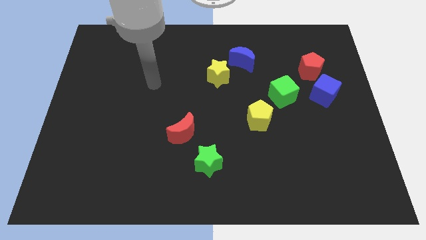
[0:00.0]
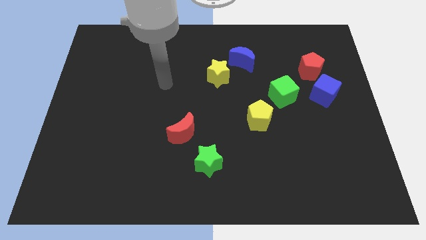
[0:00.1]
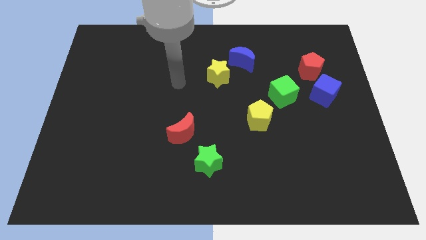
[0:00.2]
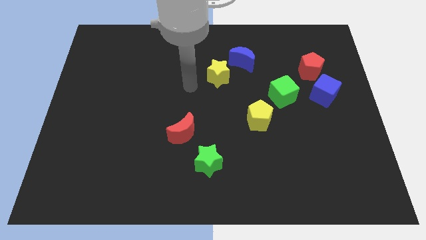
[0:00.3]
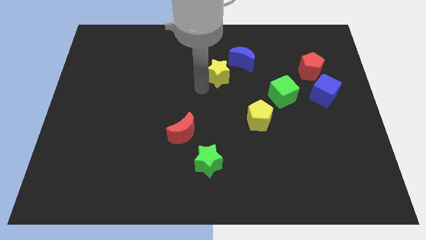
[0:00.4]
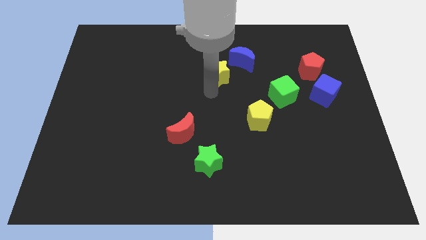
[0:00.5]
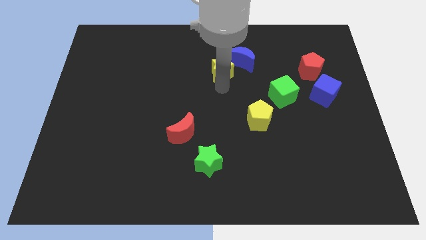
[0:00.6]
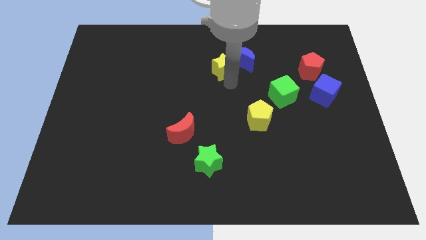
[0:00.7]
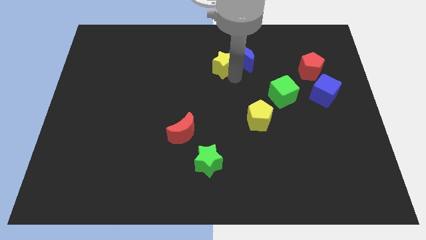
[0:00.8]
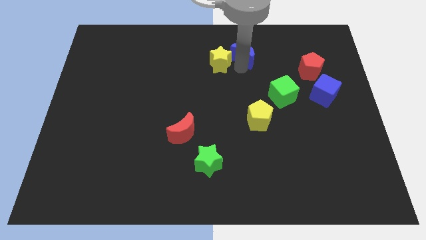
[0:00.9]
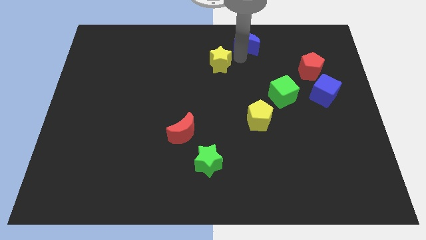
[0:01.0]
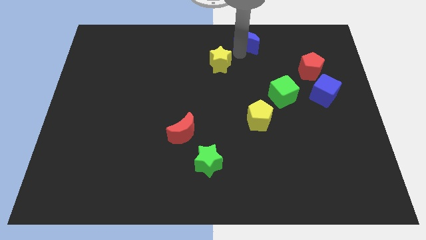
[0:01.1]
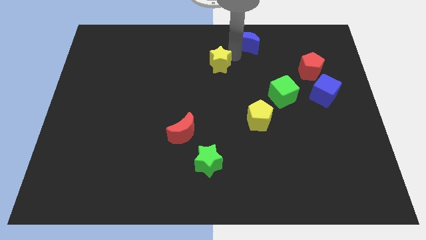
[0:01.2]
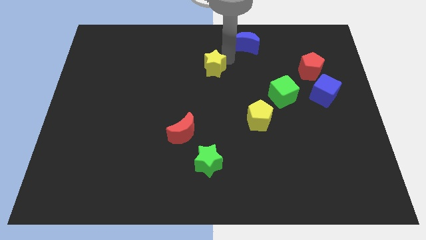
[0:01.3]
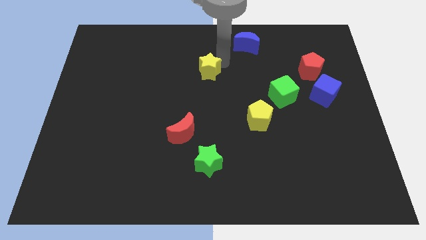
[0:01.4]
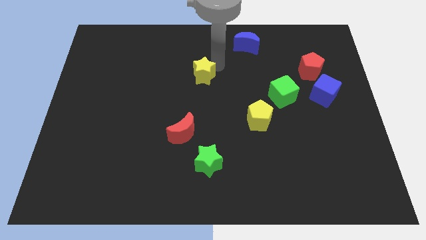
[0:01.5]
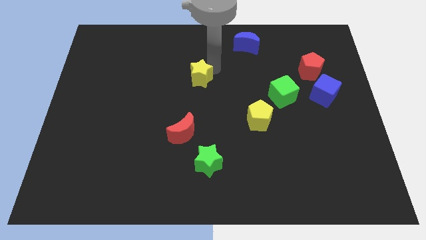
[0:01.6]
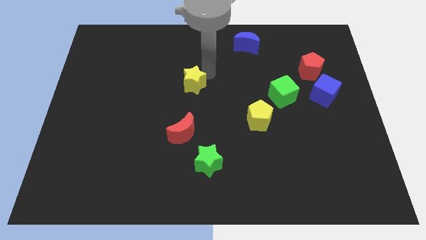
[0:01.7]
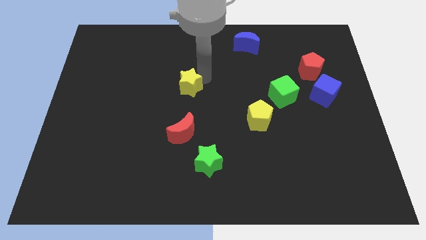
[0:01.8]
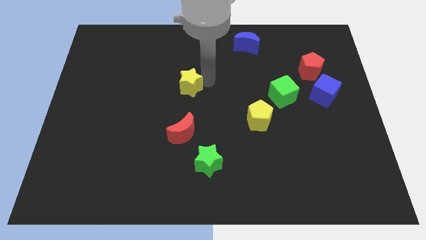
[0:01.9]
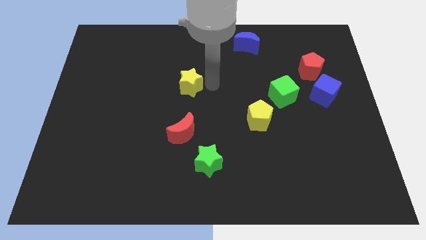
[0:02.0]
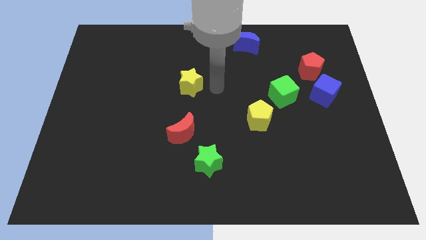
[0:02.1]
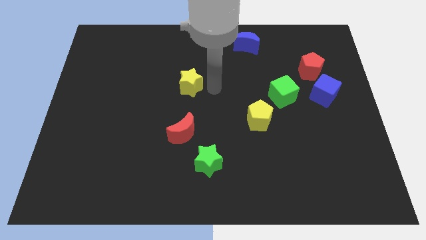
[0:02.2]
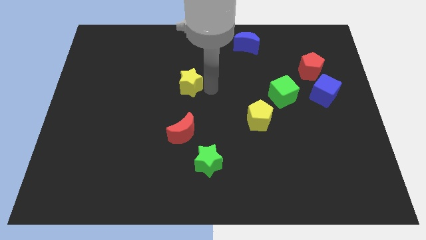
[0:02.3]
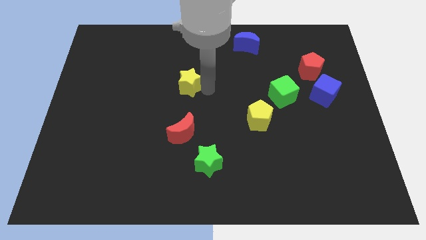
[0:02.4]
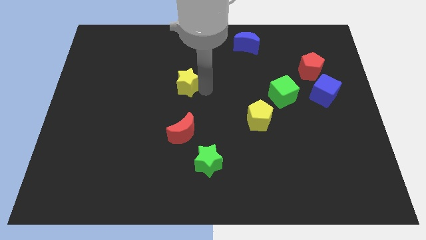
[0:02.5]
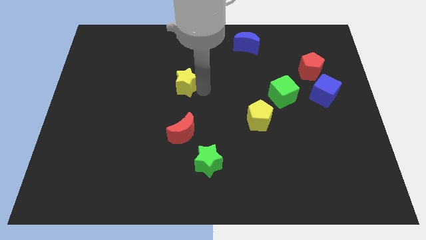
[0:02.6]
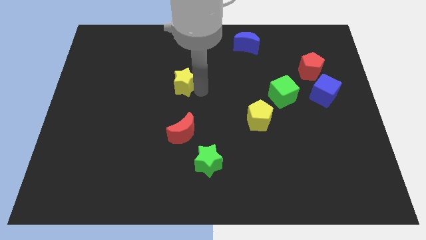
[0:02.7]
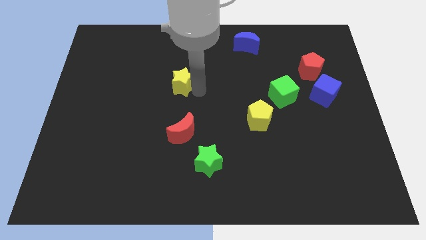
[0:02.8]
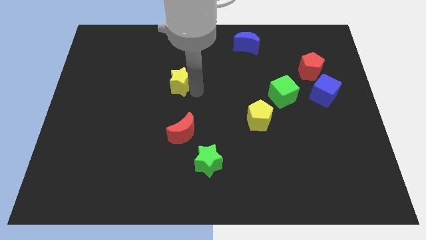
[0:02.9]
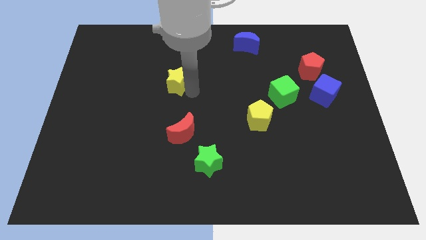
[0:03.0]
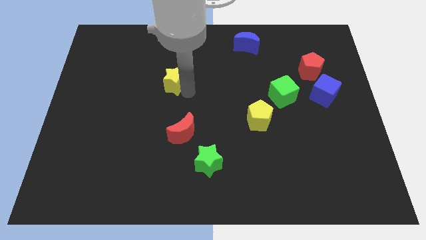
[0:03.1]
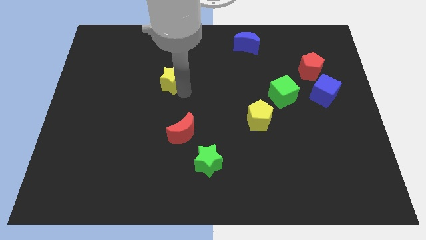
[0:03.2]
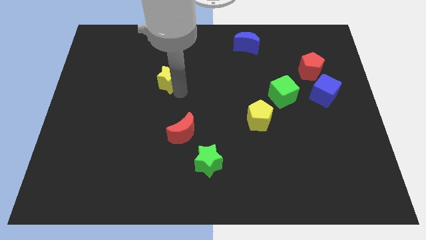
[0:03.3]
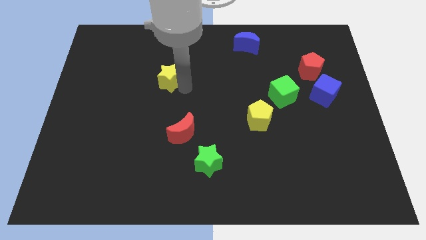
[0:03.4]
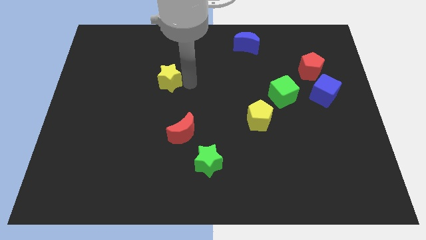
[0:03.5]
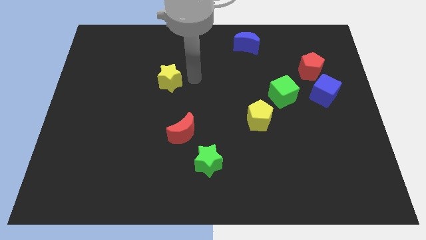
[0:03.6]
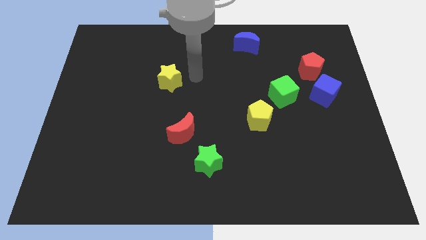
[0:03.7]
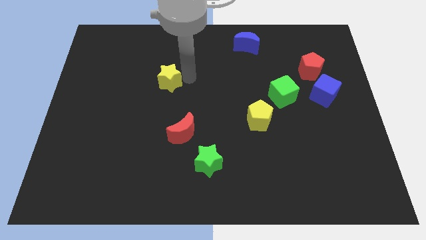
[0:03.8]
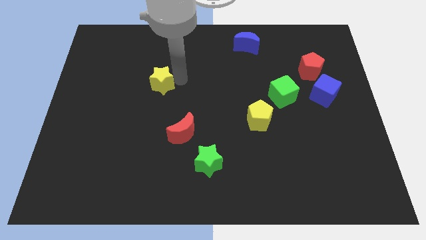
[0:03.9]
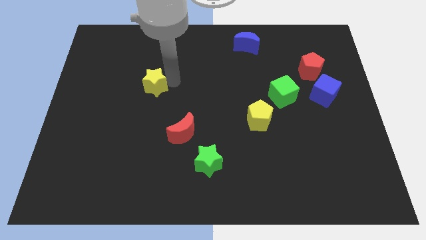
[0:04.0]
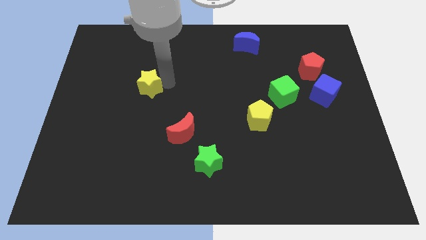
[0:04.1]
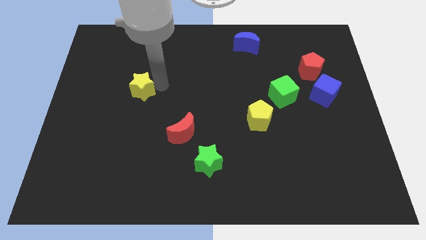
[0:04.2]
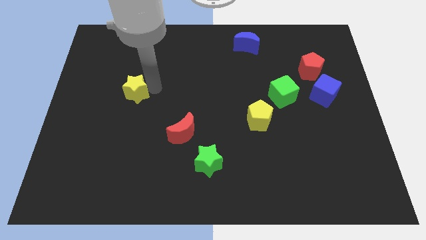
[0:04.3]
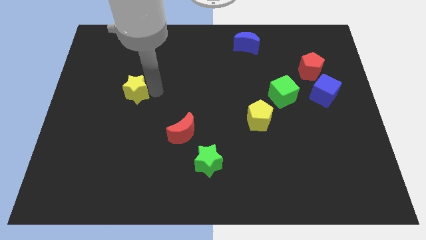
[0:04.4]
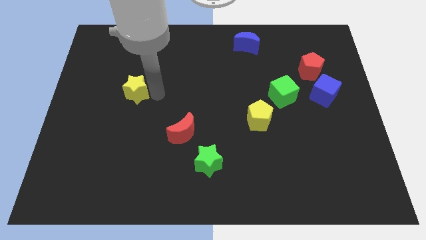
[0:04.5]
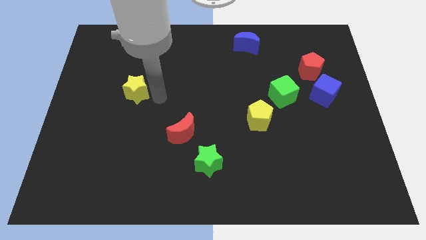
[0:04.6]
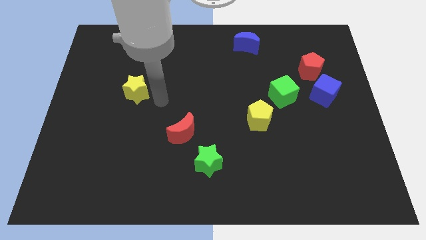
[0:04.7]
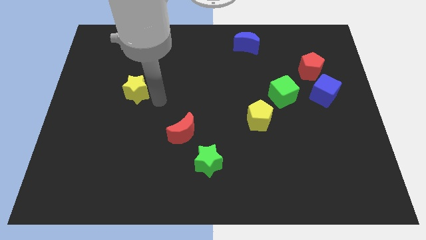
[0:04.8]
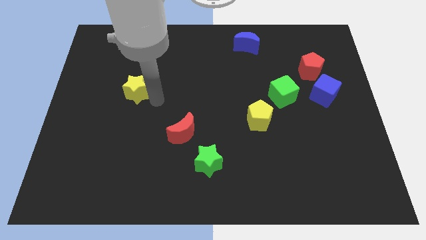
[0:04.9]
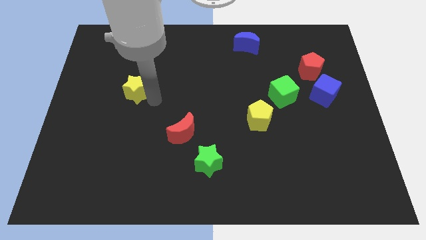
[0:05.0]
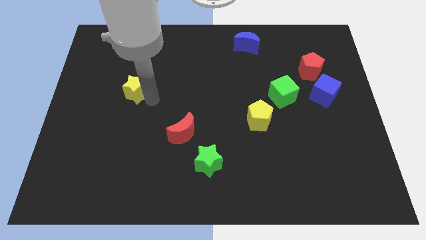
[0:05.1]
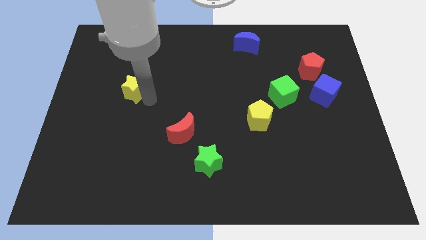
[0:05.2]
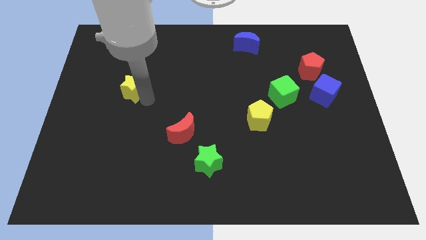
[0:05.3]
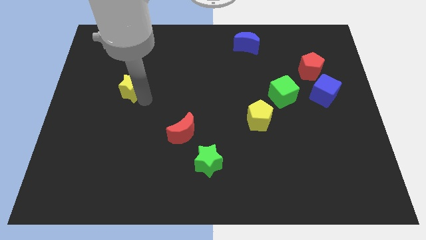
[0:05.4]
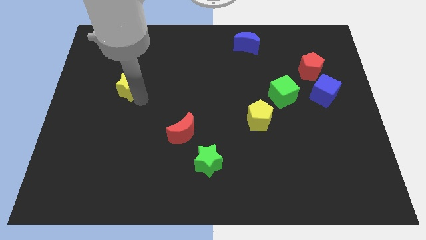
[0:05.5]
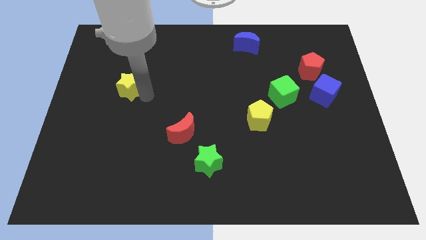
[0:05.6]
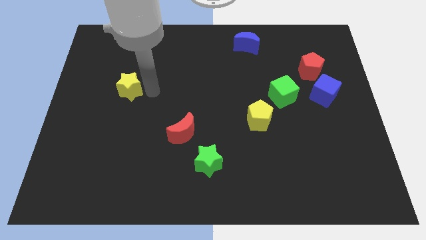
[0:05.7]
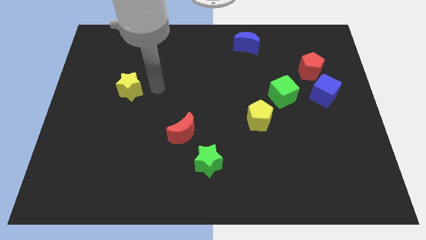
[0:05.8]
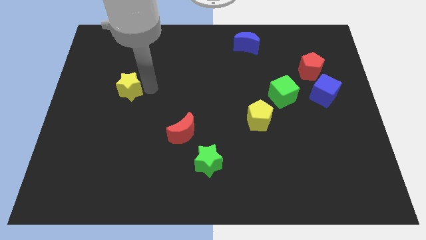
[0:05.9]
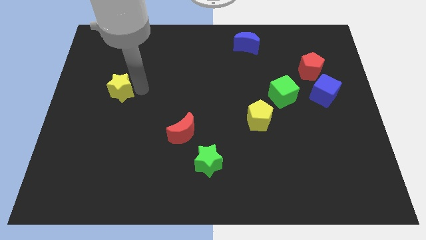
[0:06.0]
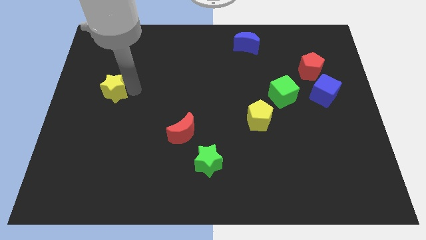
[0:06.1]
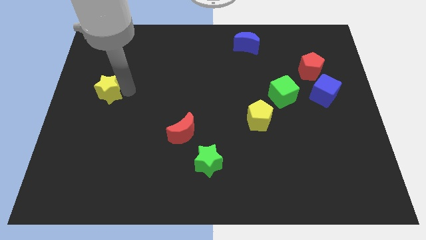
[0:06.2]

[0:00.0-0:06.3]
put the yellow star to the left side

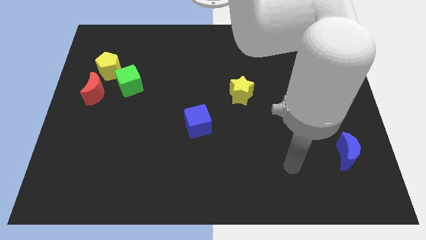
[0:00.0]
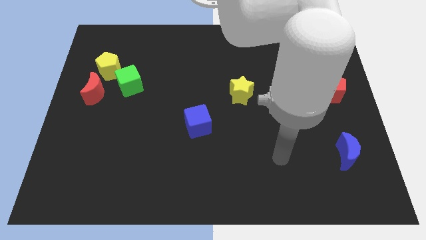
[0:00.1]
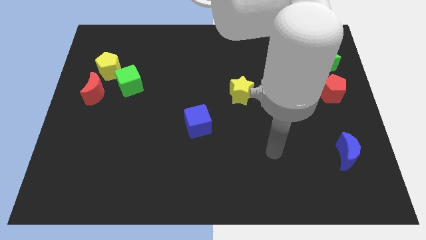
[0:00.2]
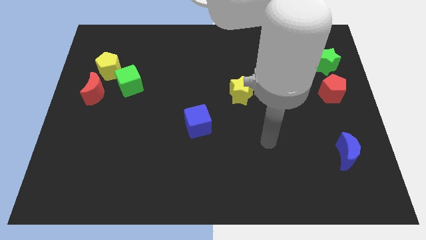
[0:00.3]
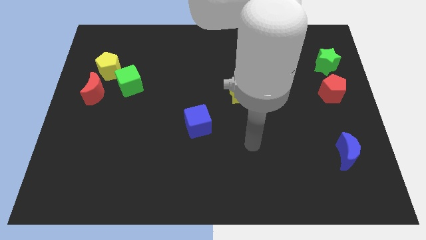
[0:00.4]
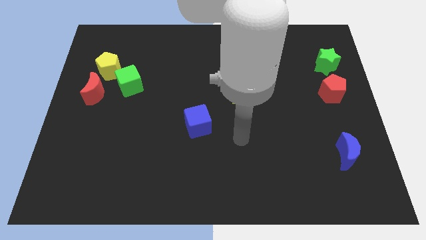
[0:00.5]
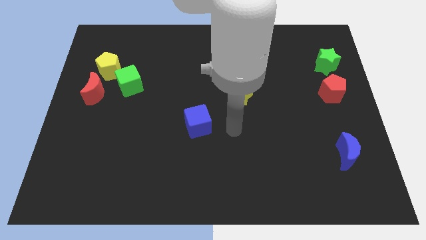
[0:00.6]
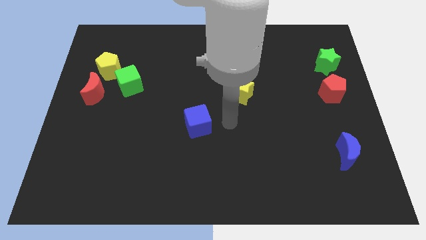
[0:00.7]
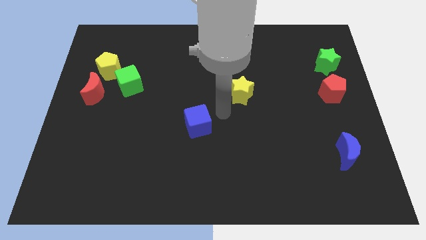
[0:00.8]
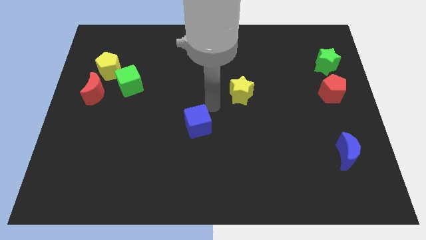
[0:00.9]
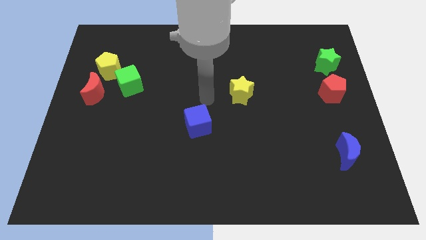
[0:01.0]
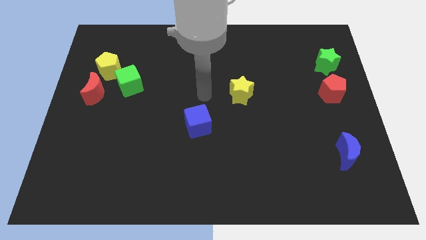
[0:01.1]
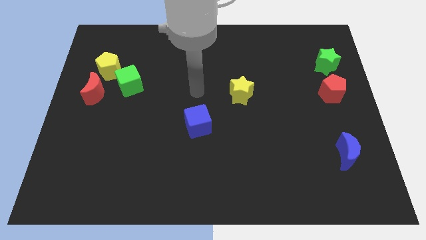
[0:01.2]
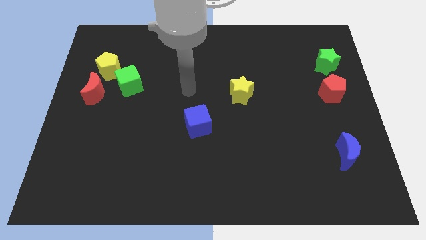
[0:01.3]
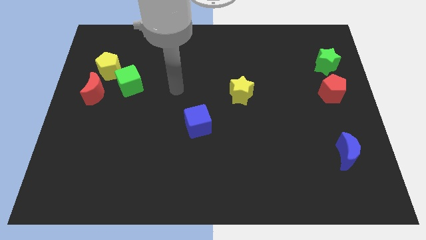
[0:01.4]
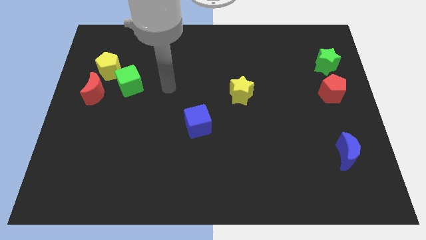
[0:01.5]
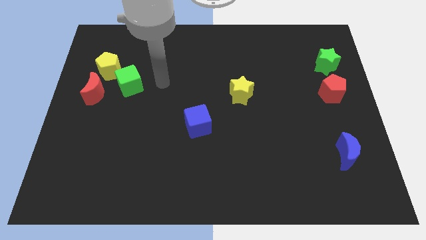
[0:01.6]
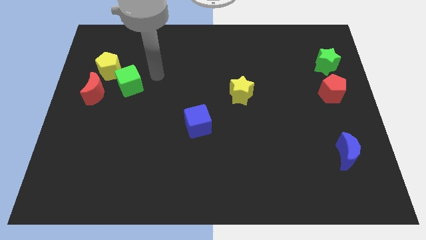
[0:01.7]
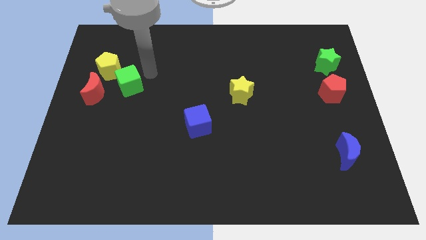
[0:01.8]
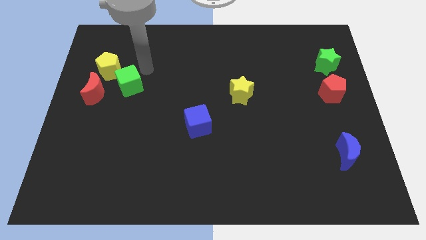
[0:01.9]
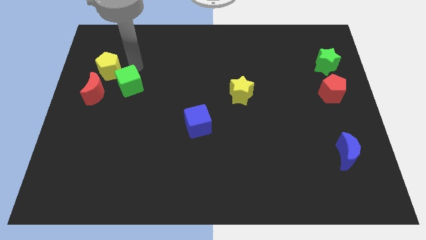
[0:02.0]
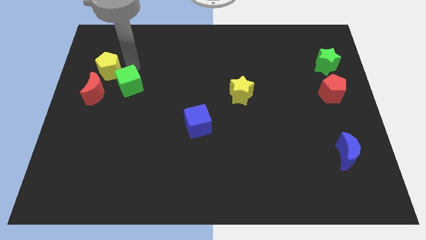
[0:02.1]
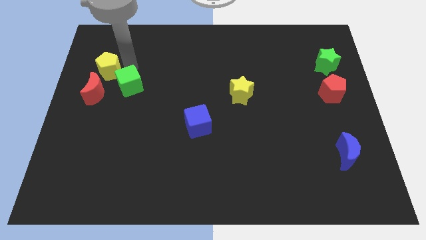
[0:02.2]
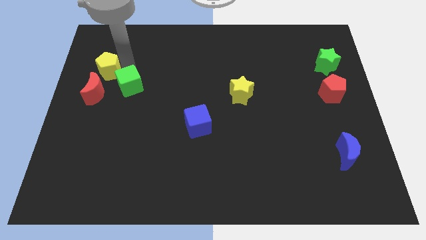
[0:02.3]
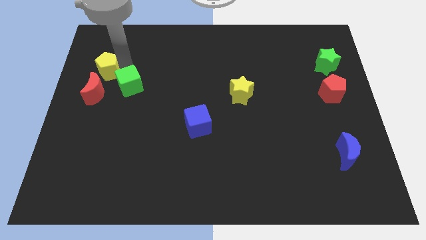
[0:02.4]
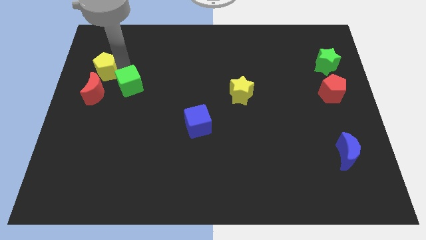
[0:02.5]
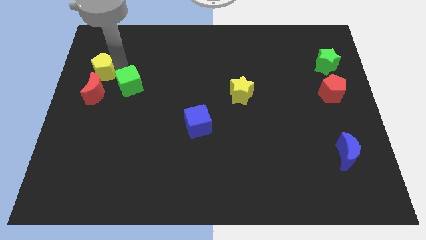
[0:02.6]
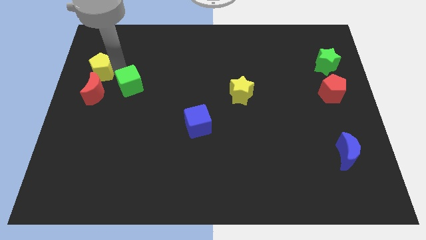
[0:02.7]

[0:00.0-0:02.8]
push the yellow pentagon to the center left
